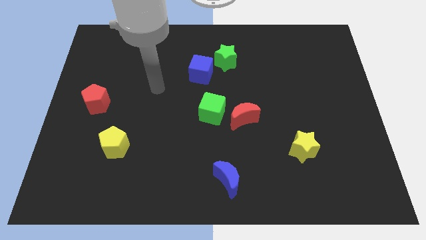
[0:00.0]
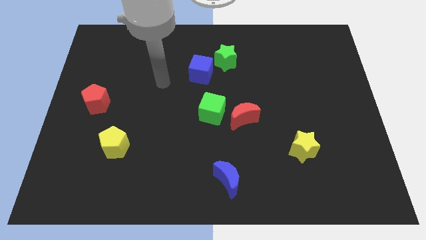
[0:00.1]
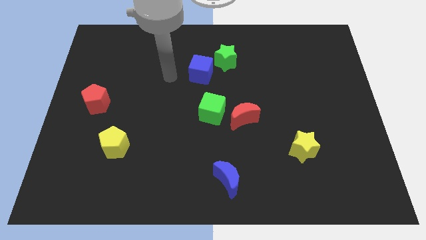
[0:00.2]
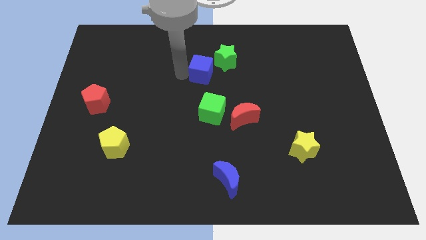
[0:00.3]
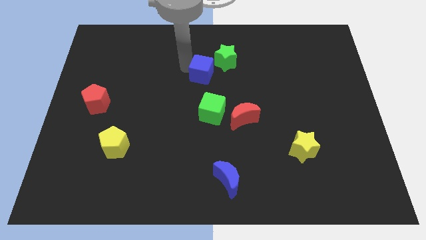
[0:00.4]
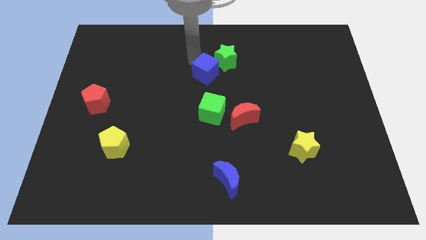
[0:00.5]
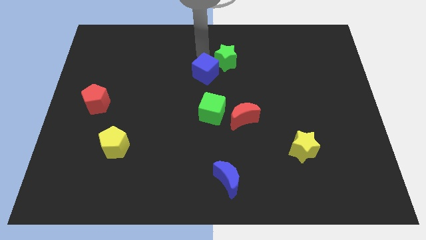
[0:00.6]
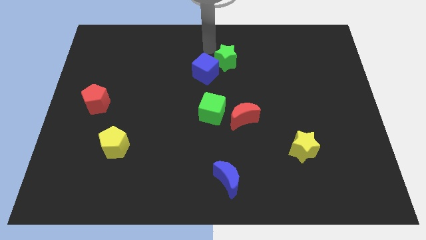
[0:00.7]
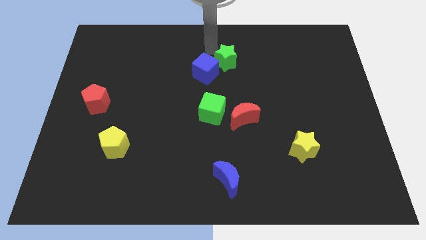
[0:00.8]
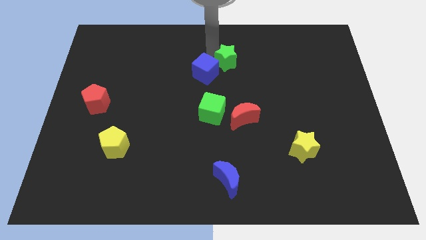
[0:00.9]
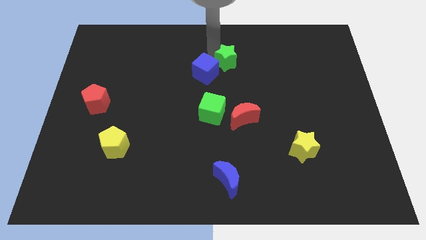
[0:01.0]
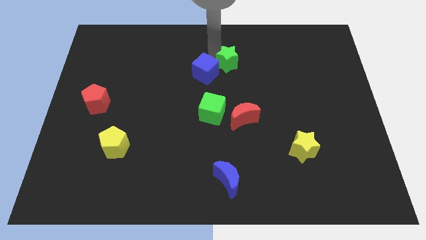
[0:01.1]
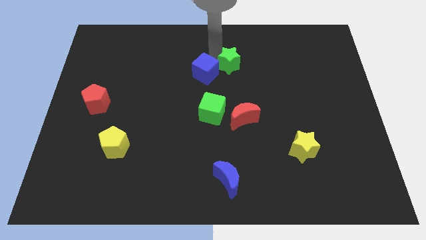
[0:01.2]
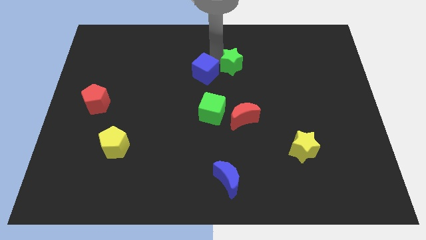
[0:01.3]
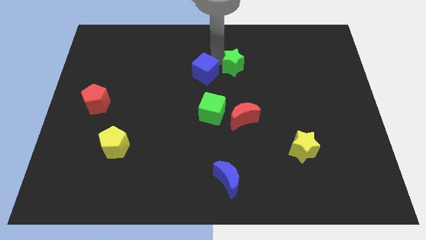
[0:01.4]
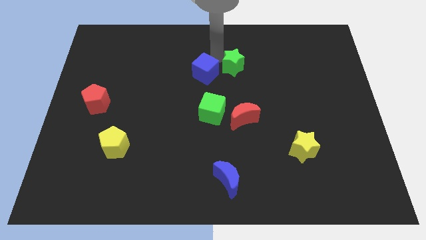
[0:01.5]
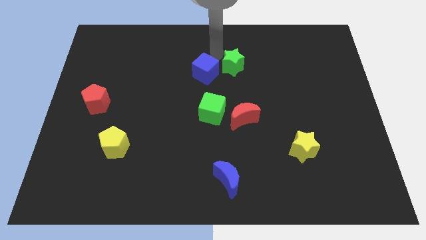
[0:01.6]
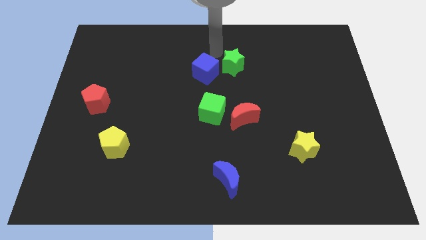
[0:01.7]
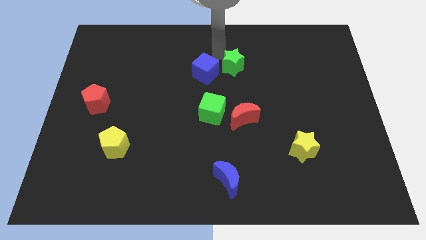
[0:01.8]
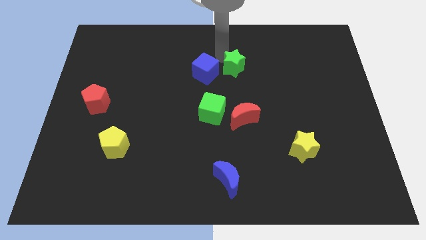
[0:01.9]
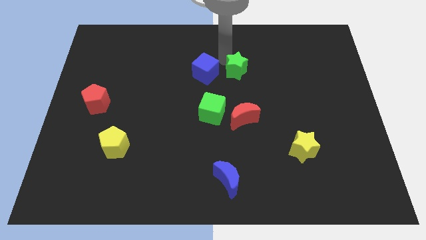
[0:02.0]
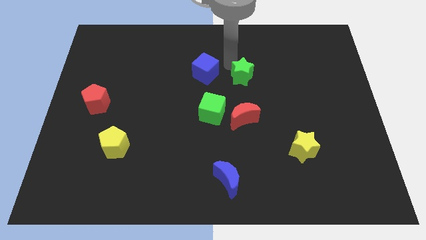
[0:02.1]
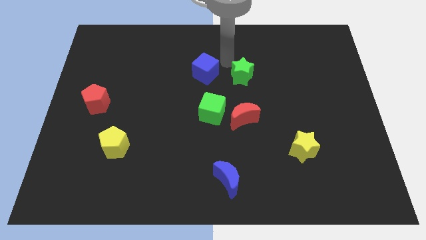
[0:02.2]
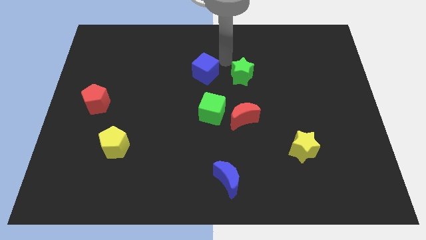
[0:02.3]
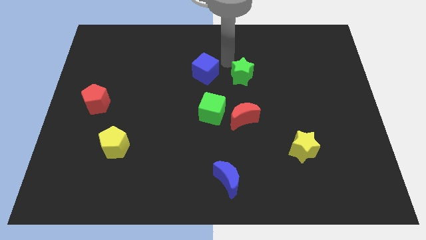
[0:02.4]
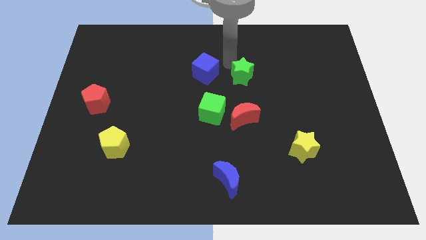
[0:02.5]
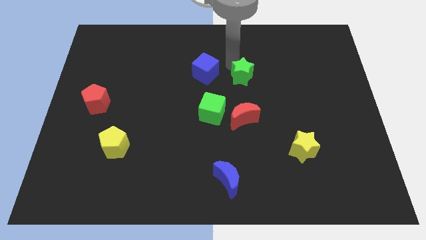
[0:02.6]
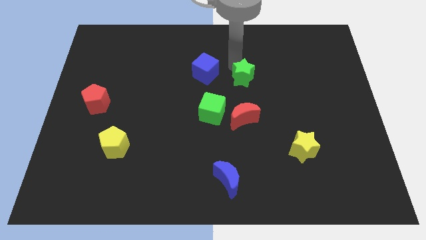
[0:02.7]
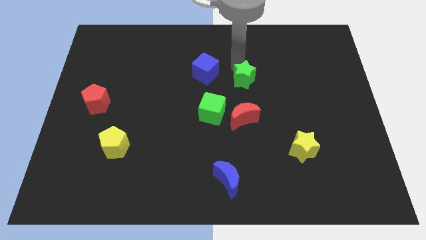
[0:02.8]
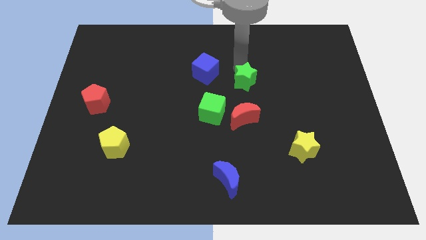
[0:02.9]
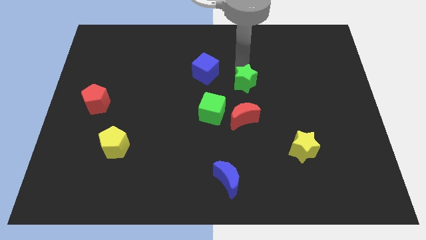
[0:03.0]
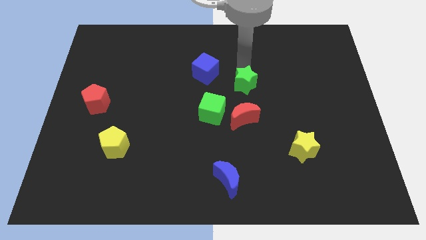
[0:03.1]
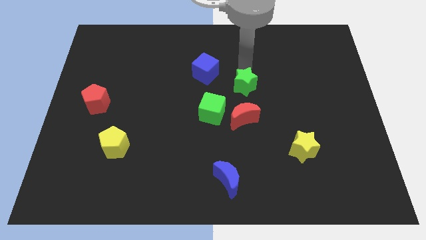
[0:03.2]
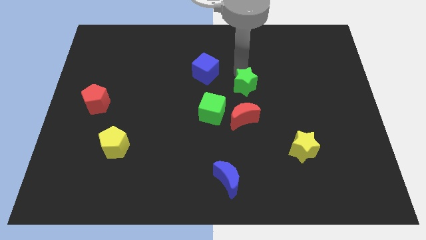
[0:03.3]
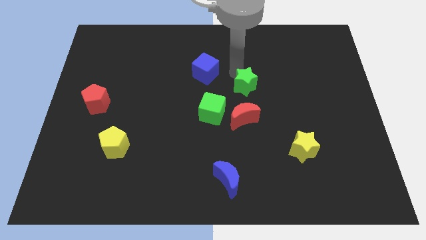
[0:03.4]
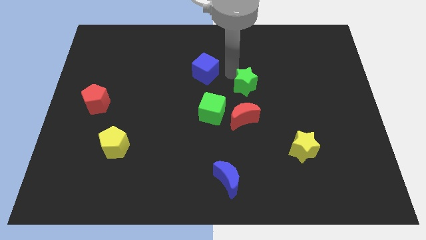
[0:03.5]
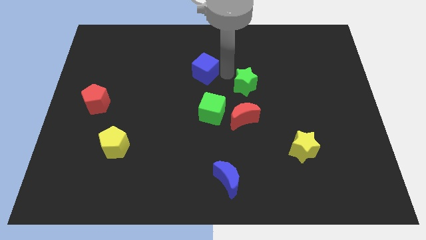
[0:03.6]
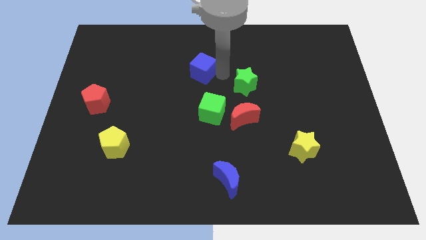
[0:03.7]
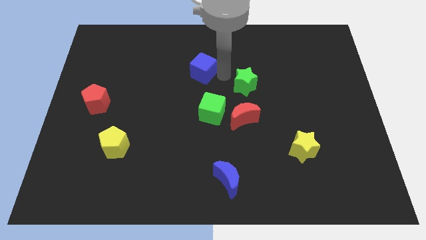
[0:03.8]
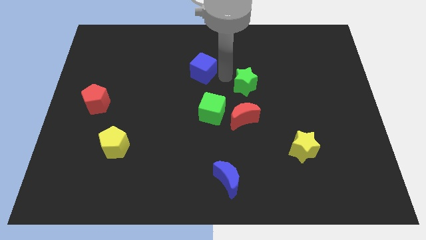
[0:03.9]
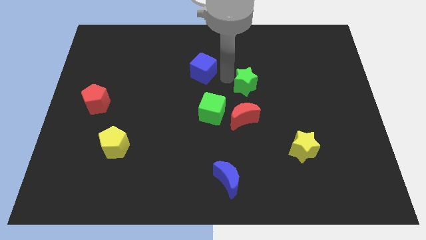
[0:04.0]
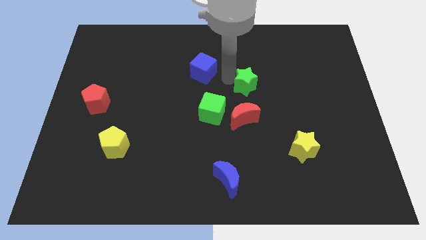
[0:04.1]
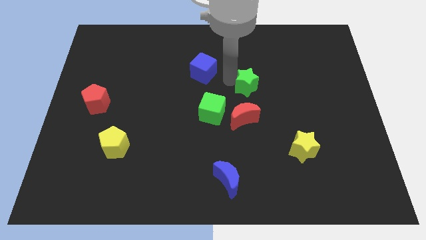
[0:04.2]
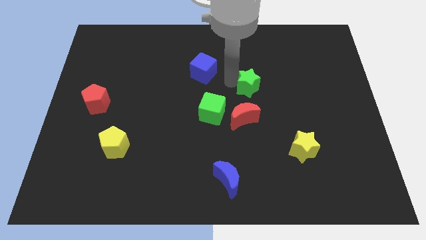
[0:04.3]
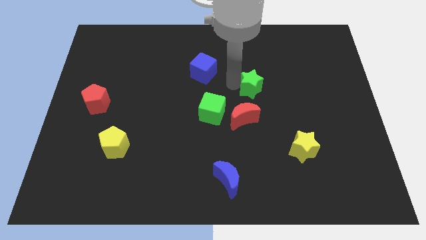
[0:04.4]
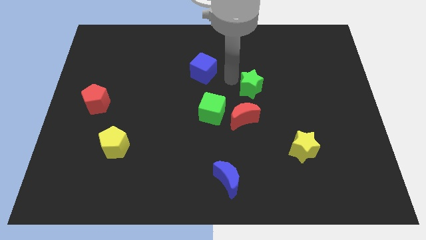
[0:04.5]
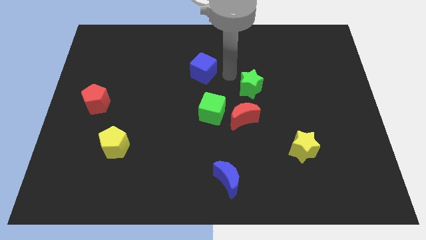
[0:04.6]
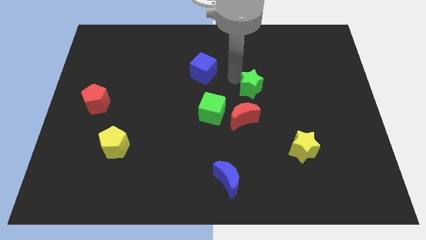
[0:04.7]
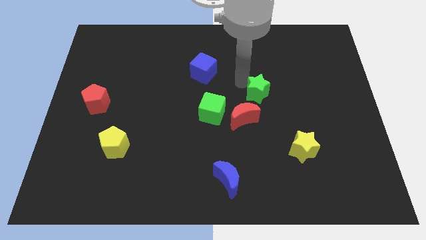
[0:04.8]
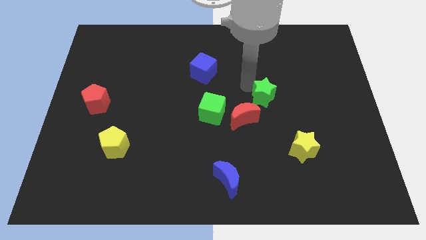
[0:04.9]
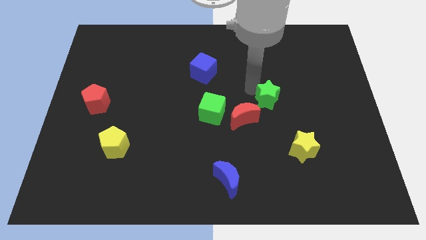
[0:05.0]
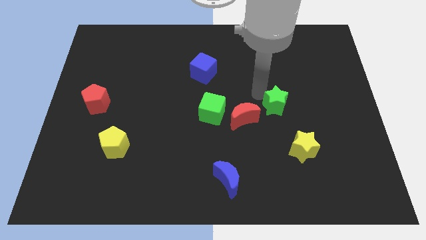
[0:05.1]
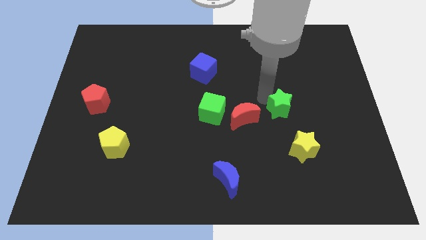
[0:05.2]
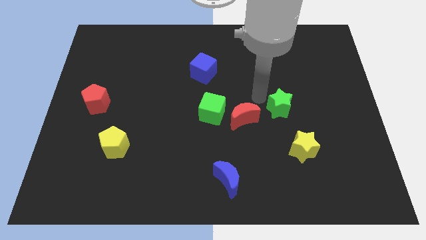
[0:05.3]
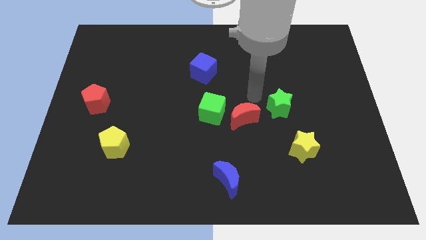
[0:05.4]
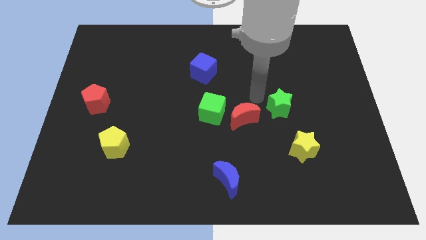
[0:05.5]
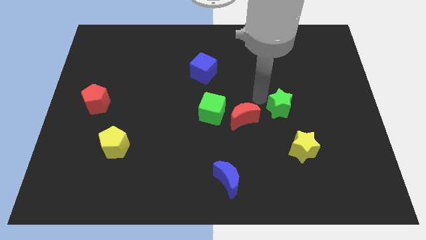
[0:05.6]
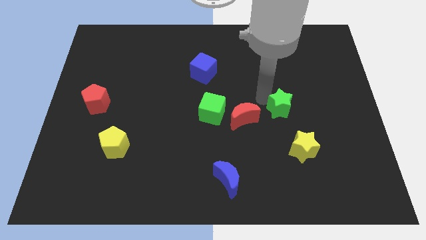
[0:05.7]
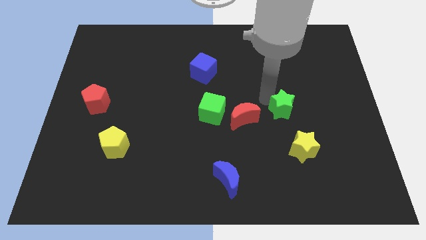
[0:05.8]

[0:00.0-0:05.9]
move the green star diagonally downwards and to the right

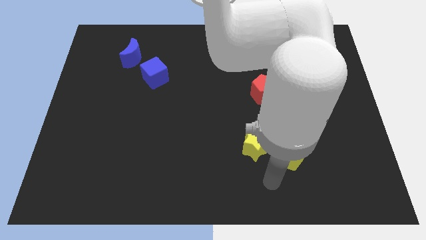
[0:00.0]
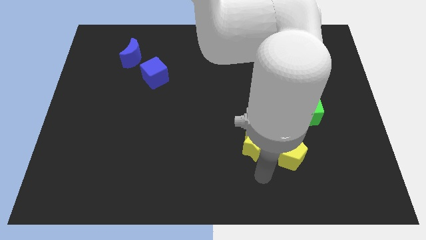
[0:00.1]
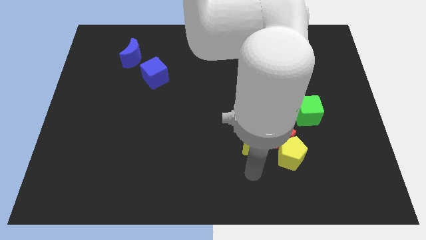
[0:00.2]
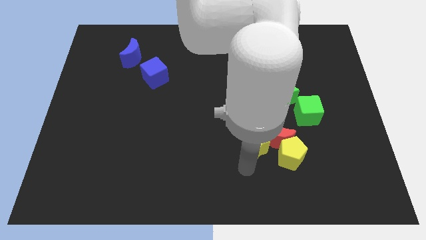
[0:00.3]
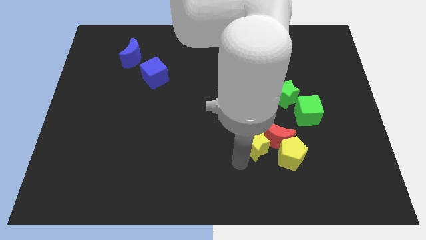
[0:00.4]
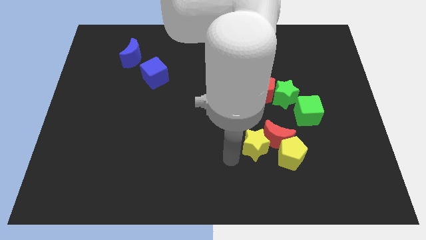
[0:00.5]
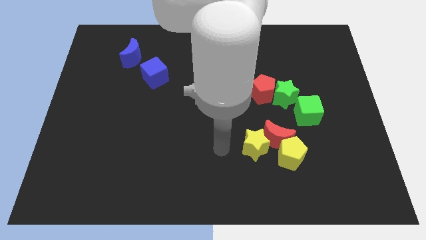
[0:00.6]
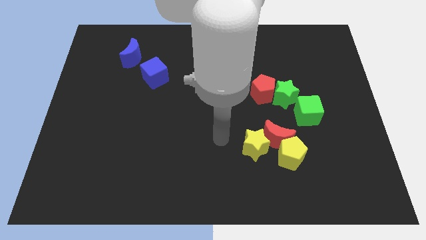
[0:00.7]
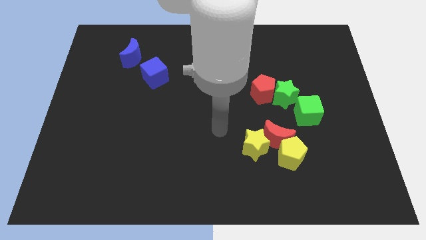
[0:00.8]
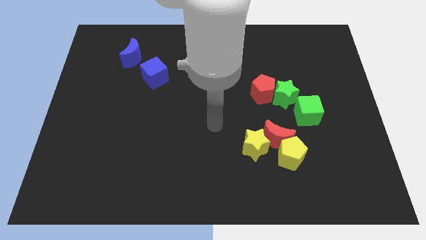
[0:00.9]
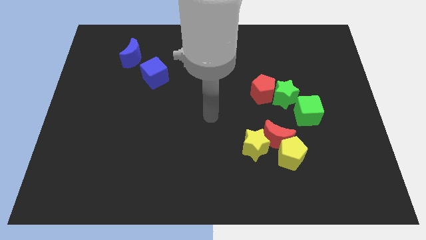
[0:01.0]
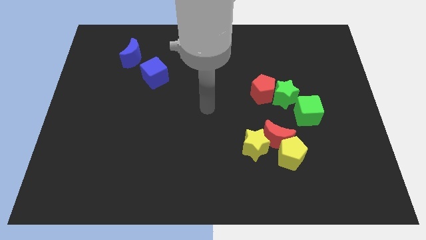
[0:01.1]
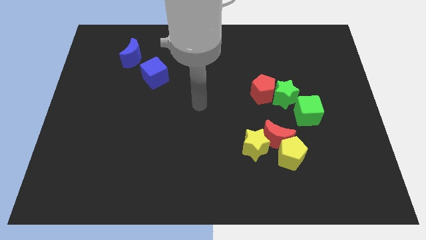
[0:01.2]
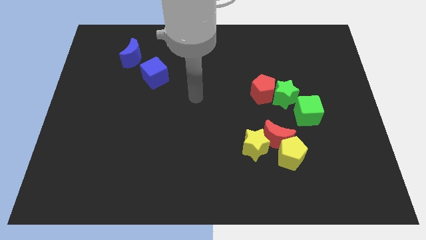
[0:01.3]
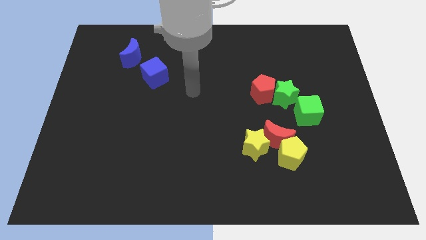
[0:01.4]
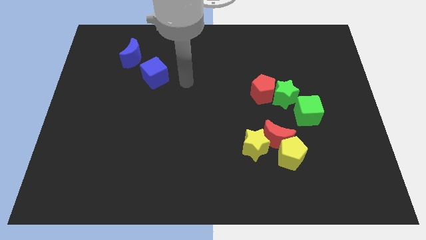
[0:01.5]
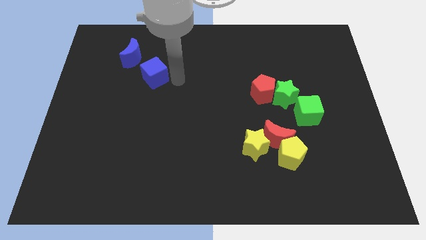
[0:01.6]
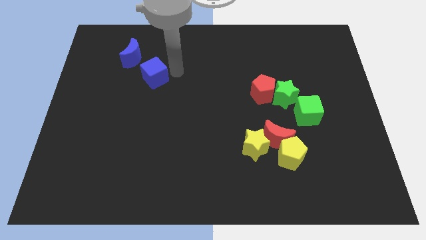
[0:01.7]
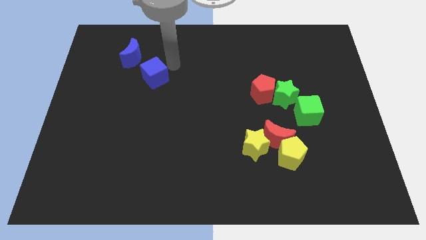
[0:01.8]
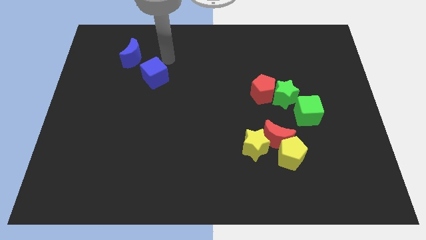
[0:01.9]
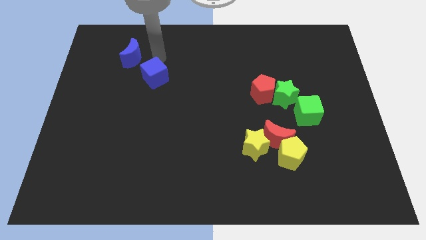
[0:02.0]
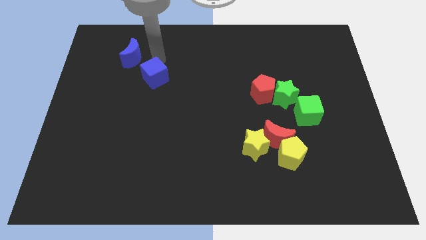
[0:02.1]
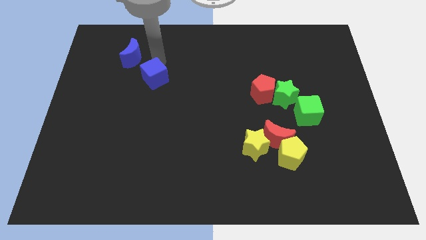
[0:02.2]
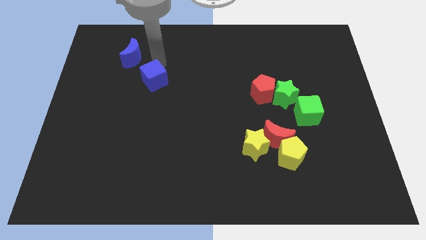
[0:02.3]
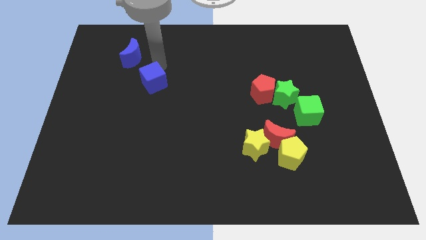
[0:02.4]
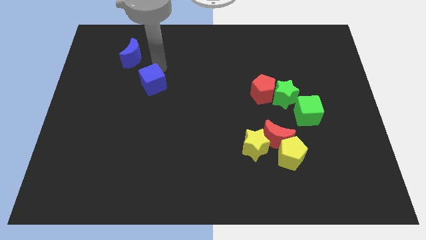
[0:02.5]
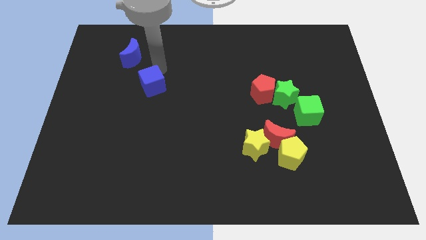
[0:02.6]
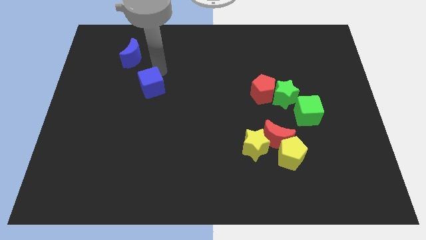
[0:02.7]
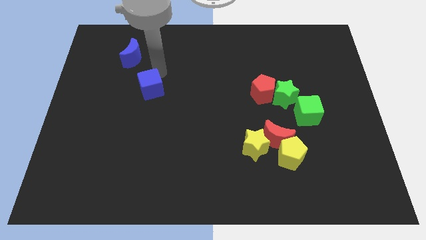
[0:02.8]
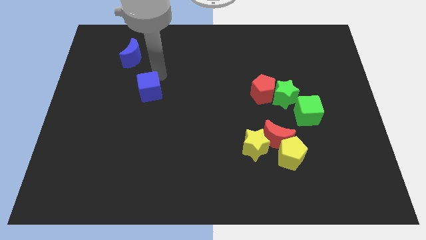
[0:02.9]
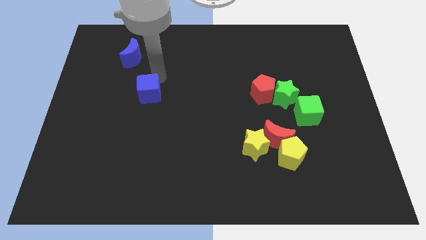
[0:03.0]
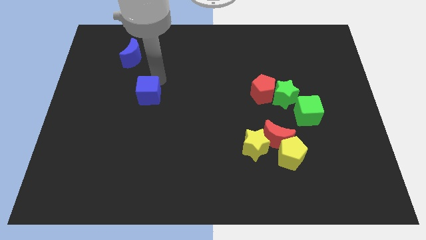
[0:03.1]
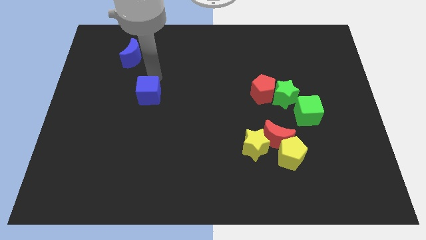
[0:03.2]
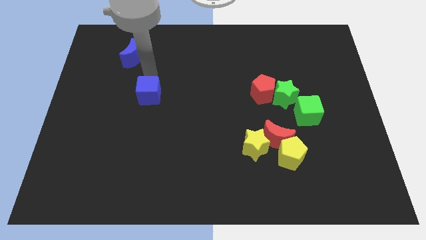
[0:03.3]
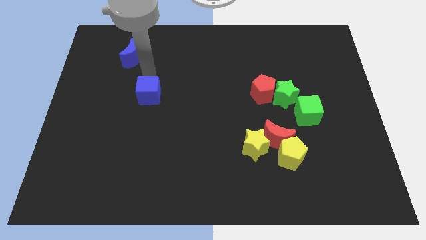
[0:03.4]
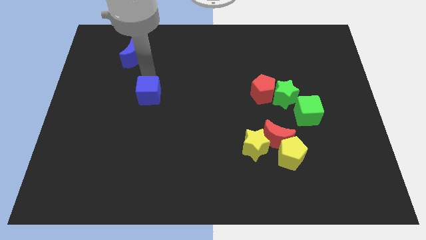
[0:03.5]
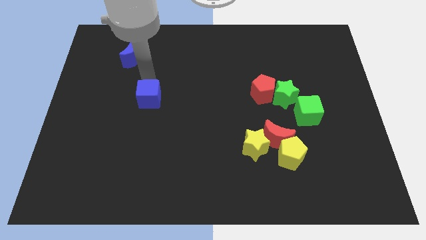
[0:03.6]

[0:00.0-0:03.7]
push the blue cube somewhat down
